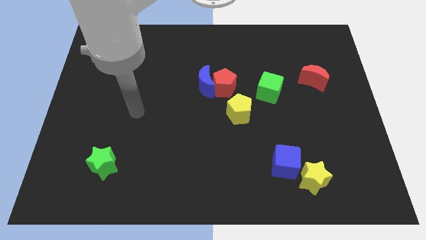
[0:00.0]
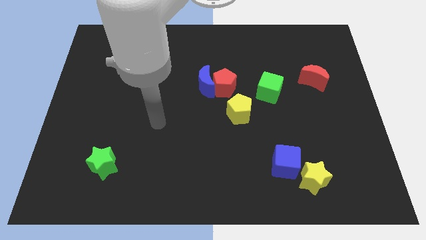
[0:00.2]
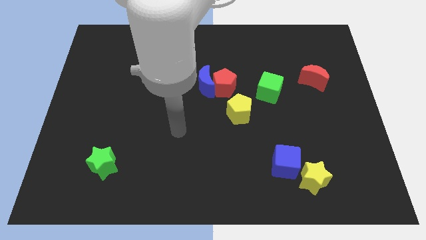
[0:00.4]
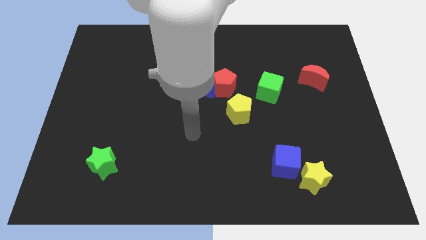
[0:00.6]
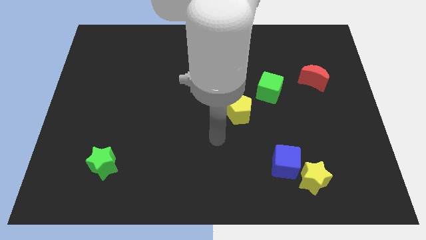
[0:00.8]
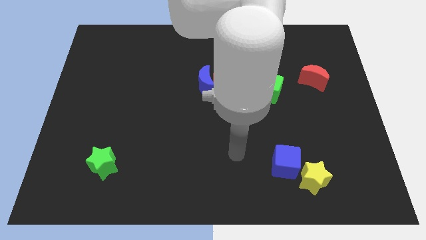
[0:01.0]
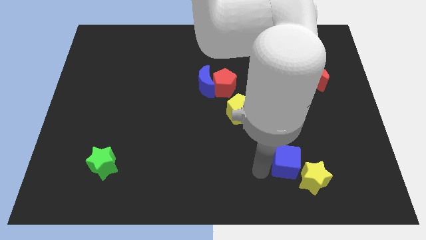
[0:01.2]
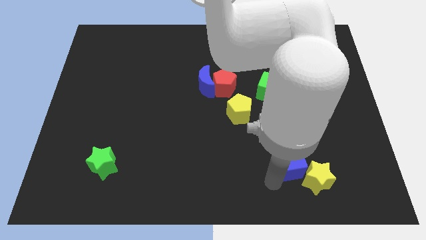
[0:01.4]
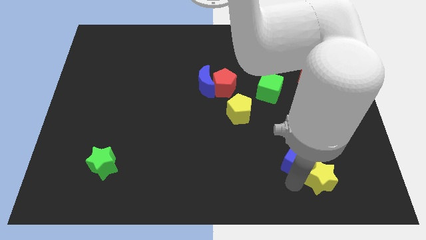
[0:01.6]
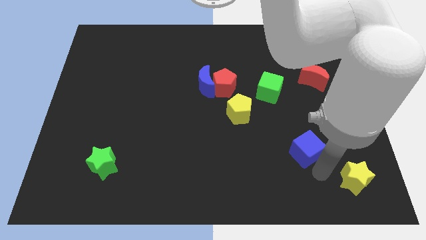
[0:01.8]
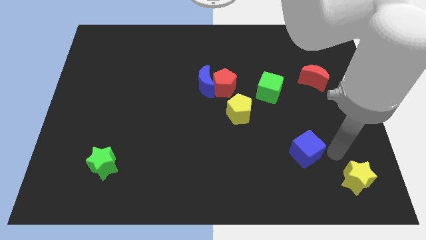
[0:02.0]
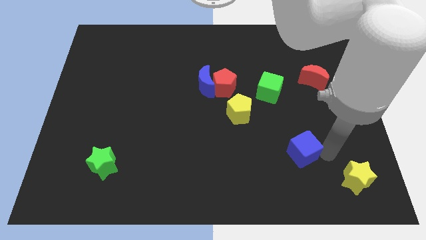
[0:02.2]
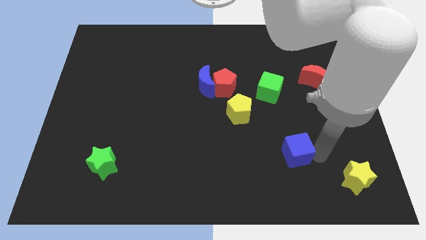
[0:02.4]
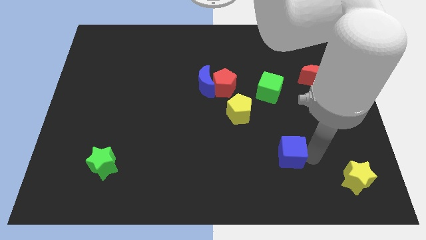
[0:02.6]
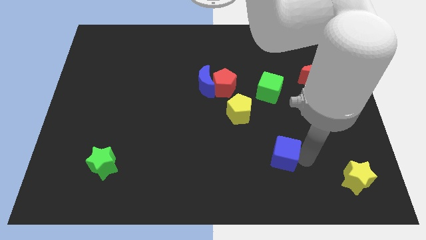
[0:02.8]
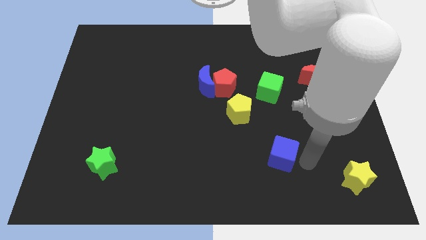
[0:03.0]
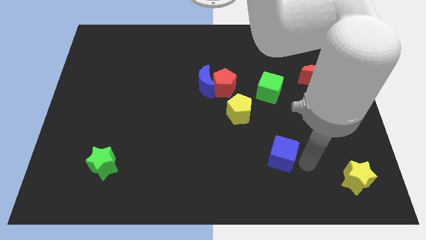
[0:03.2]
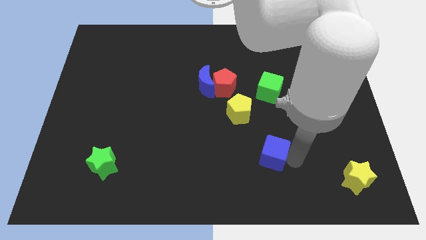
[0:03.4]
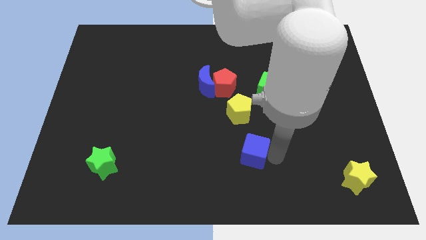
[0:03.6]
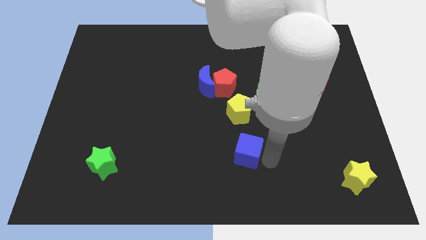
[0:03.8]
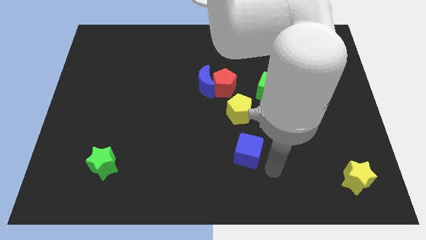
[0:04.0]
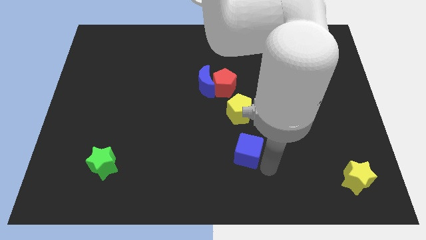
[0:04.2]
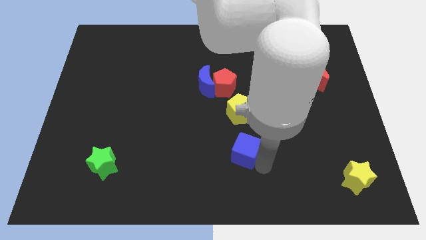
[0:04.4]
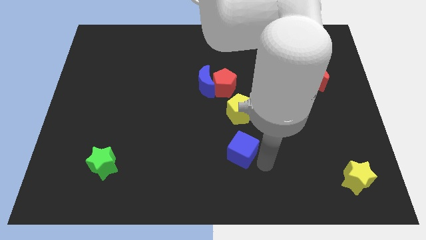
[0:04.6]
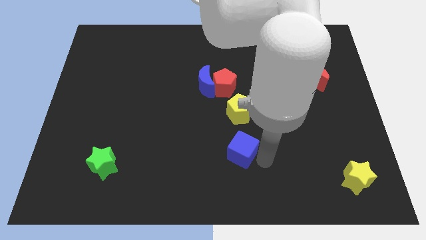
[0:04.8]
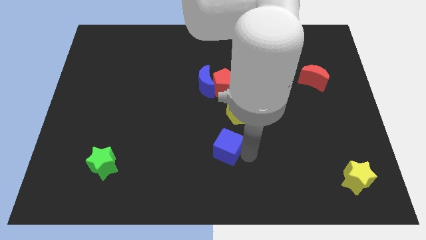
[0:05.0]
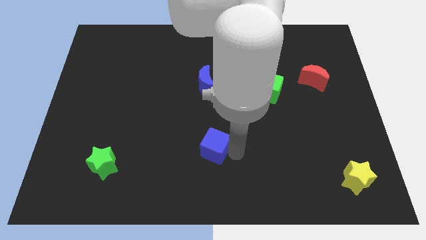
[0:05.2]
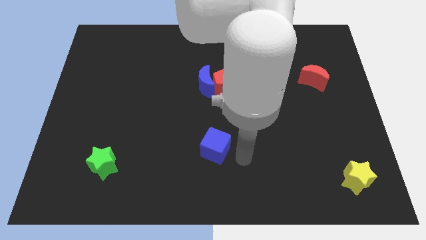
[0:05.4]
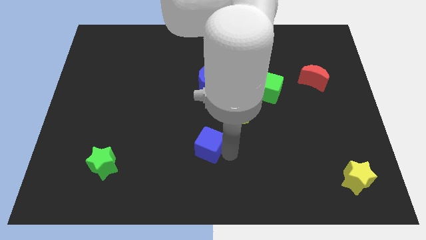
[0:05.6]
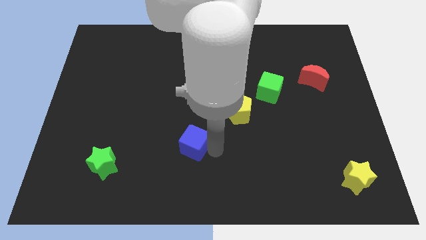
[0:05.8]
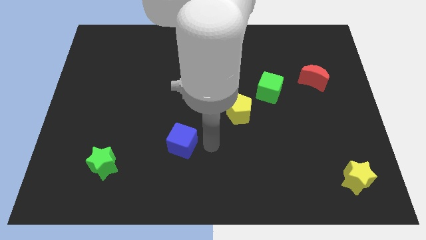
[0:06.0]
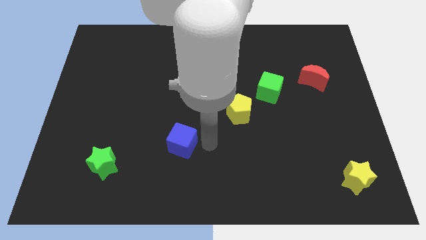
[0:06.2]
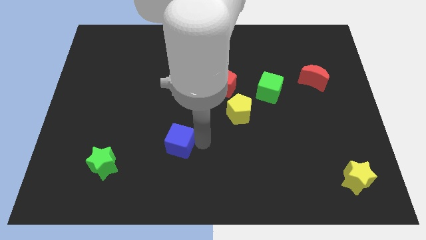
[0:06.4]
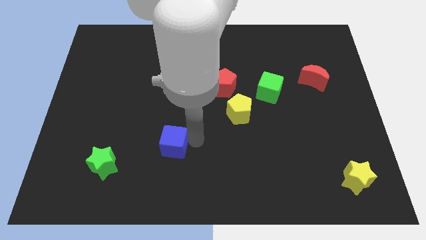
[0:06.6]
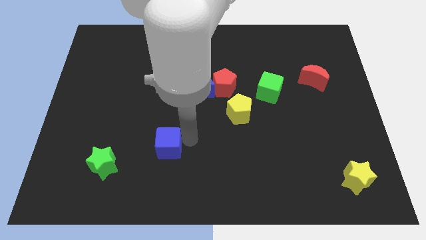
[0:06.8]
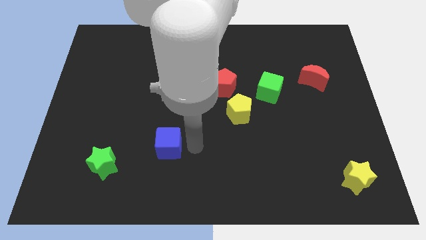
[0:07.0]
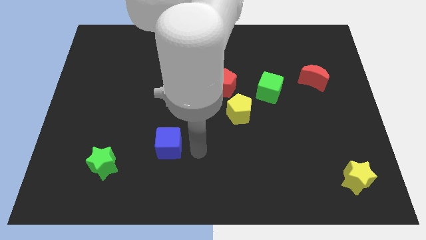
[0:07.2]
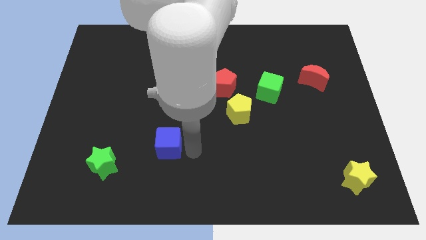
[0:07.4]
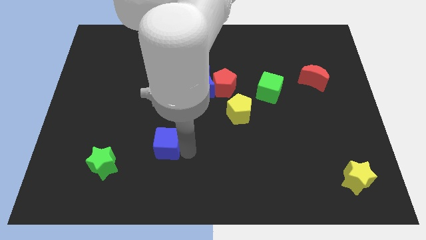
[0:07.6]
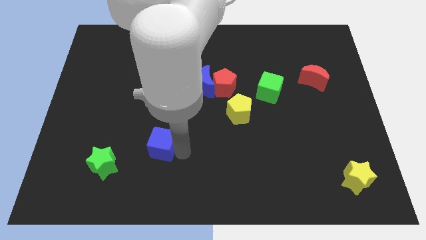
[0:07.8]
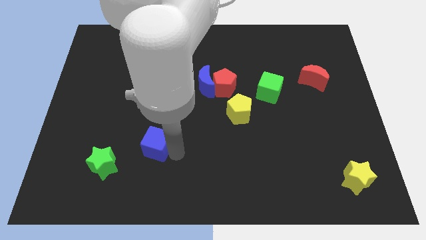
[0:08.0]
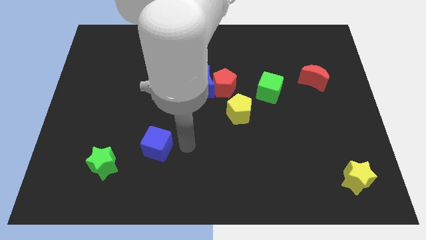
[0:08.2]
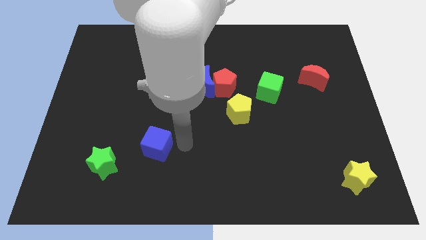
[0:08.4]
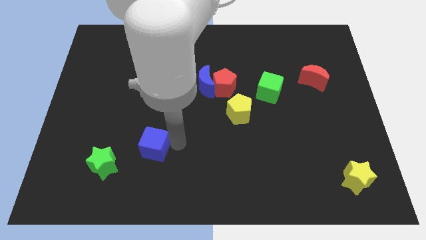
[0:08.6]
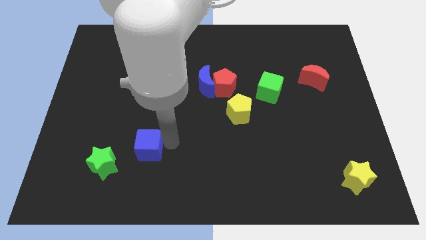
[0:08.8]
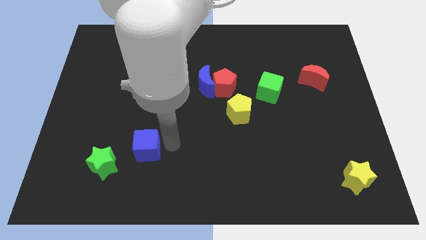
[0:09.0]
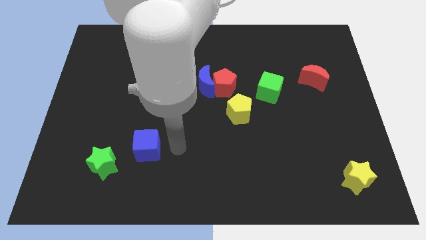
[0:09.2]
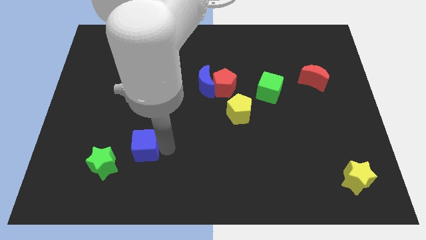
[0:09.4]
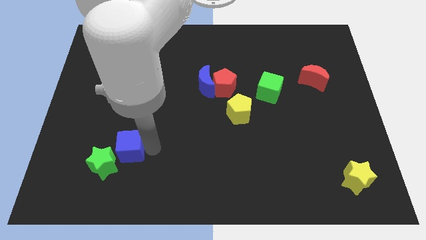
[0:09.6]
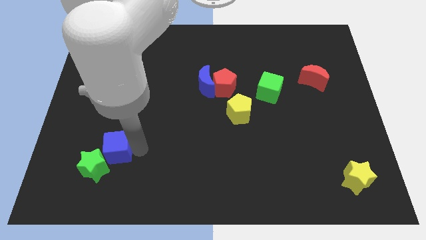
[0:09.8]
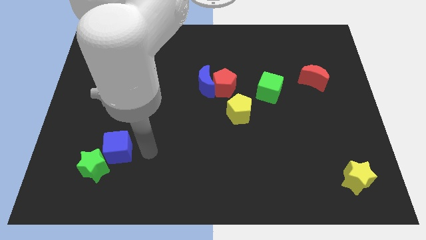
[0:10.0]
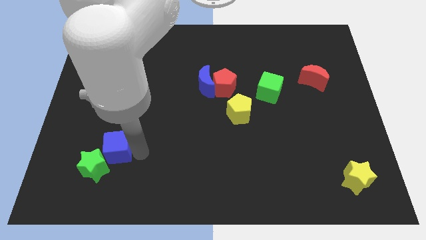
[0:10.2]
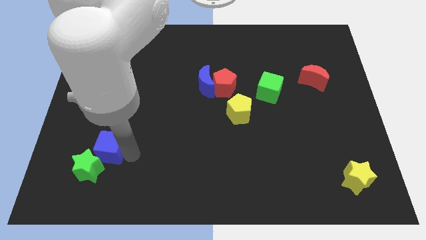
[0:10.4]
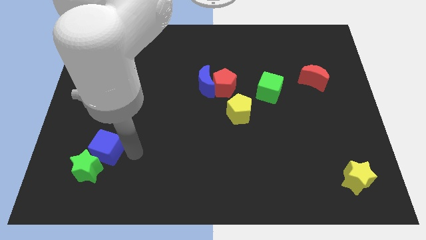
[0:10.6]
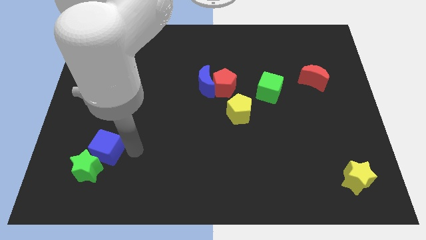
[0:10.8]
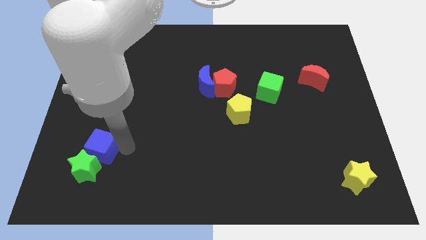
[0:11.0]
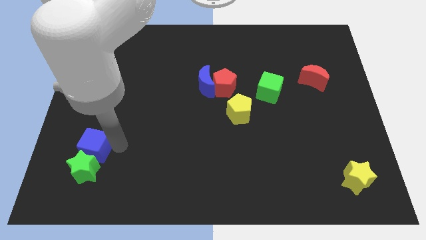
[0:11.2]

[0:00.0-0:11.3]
push the blue cube to the top left side of the green star

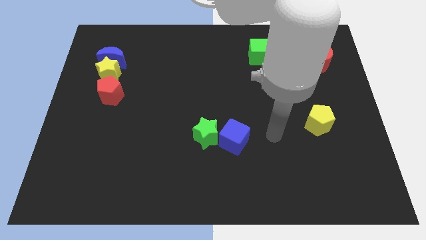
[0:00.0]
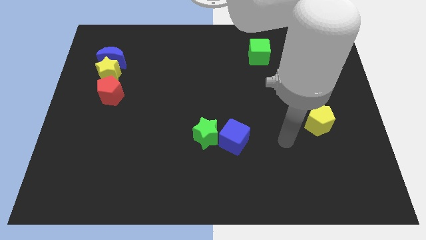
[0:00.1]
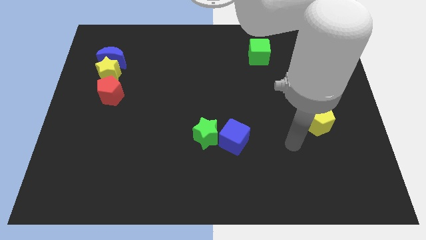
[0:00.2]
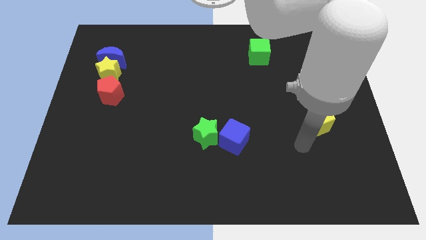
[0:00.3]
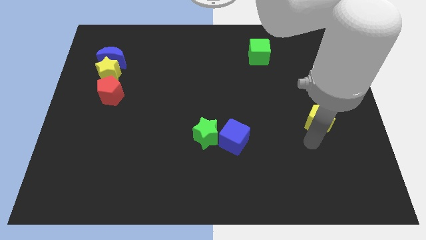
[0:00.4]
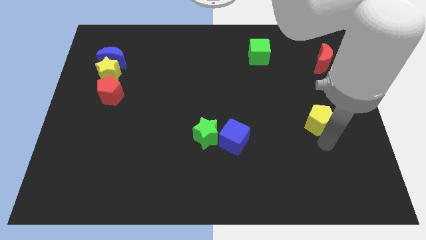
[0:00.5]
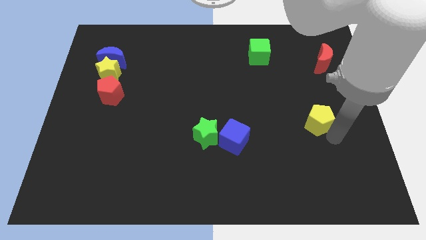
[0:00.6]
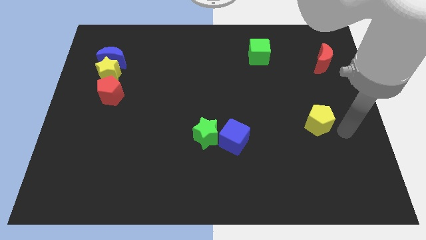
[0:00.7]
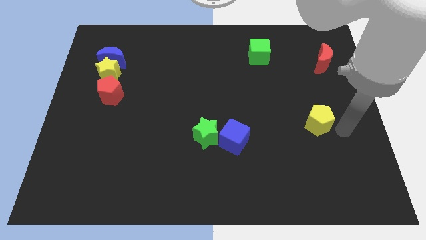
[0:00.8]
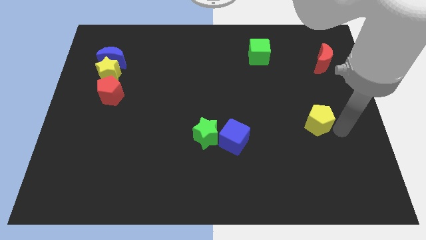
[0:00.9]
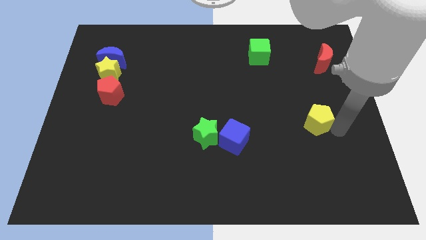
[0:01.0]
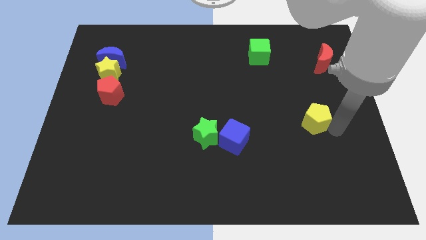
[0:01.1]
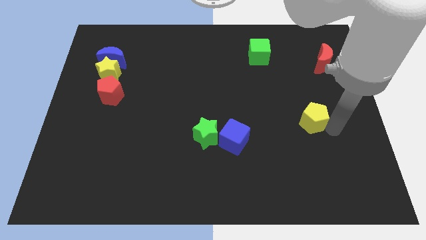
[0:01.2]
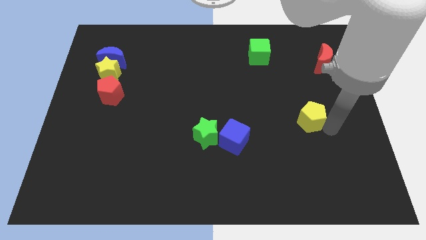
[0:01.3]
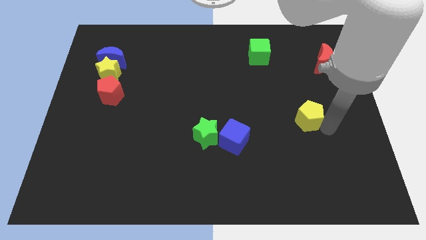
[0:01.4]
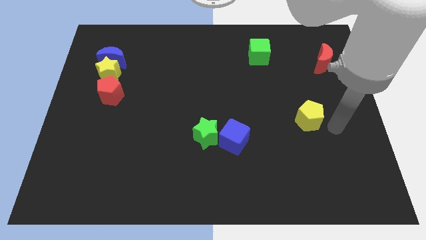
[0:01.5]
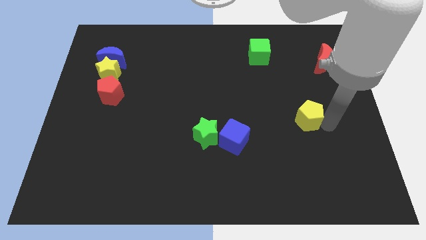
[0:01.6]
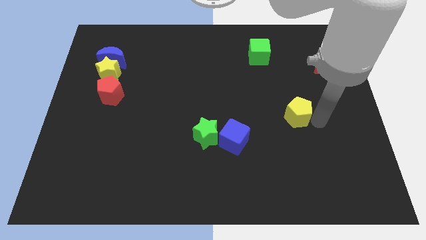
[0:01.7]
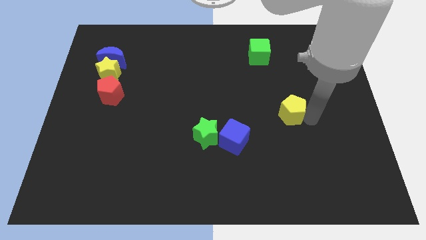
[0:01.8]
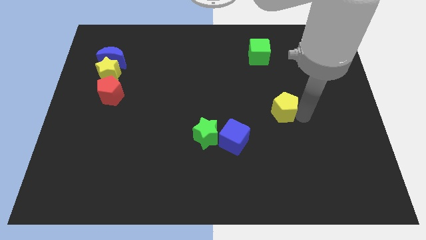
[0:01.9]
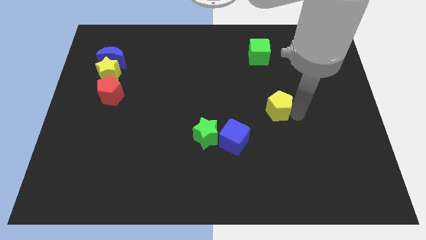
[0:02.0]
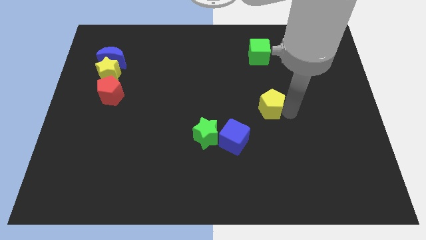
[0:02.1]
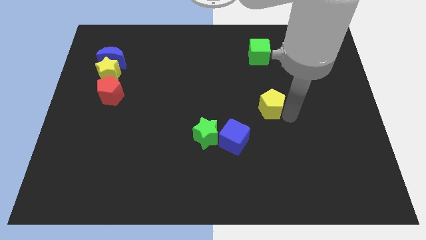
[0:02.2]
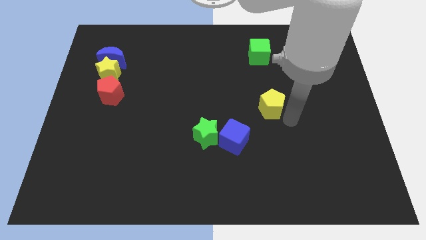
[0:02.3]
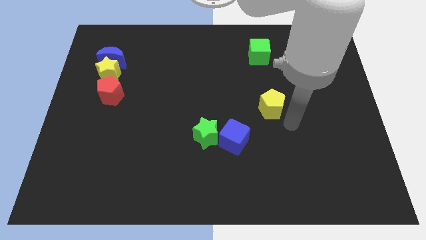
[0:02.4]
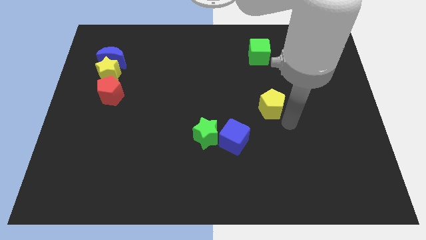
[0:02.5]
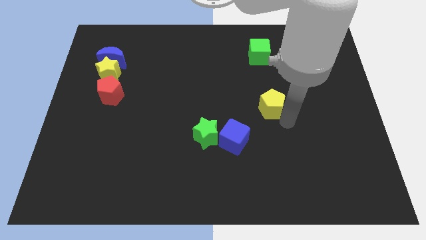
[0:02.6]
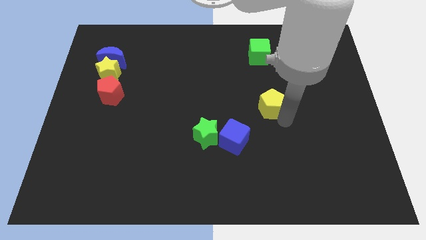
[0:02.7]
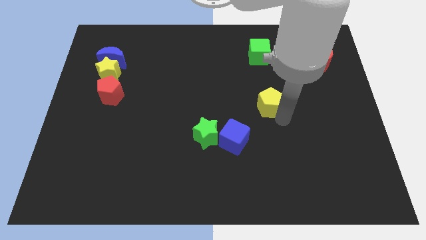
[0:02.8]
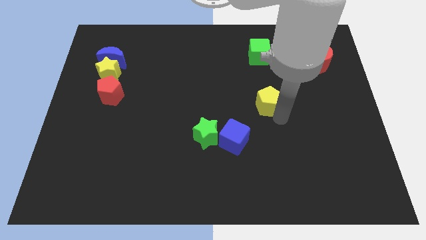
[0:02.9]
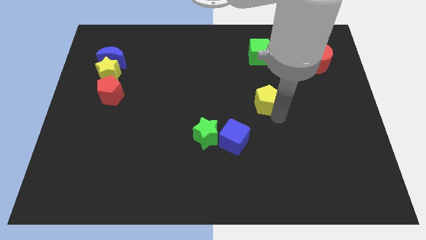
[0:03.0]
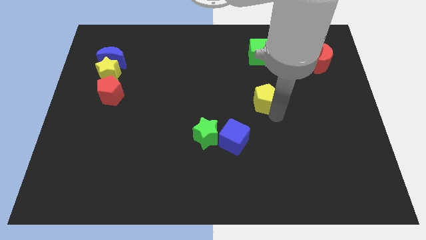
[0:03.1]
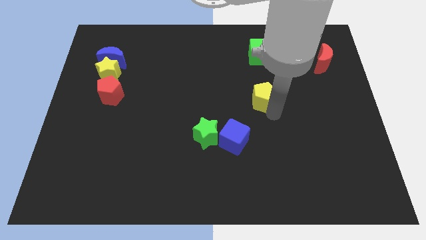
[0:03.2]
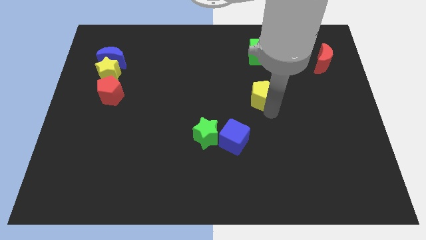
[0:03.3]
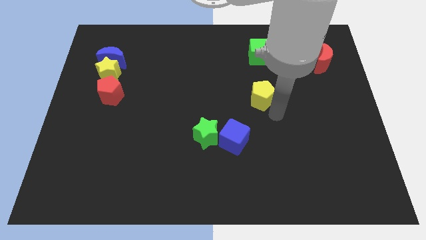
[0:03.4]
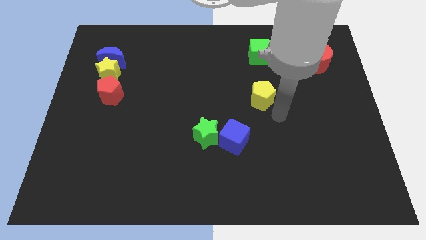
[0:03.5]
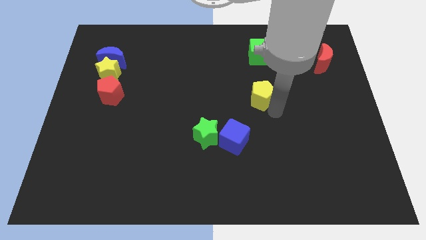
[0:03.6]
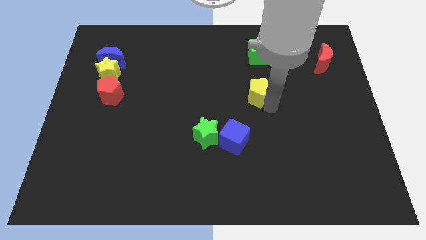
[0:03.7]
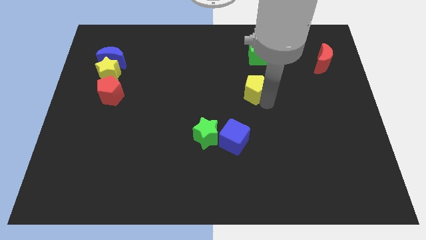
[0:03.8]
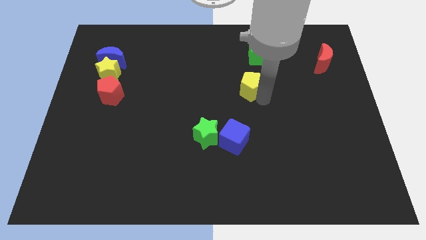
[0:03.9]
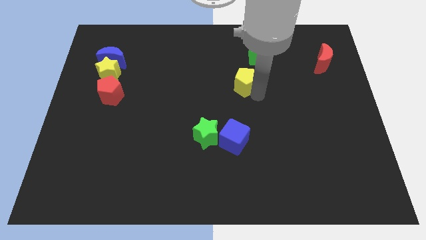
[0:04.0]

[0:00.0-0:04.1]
slide the yellow pentagon to the bottom left side of the green cube
